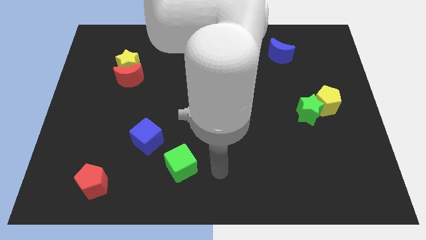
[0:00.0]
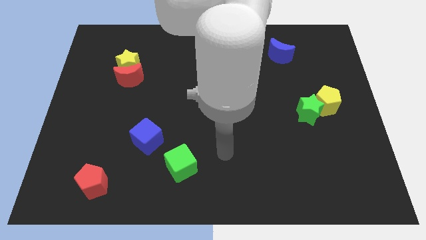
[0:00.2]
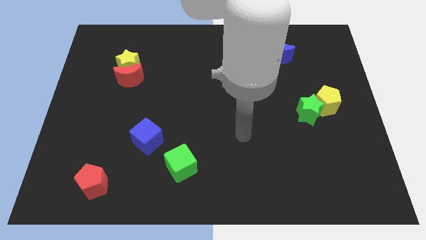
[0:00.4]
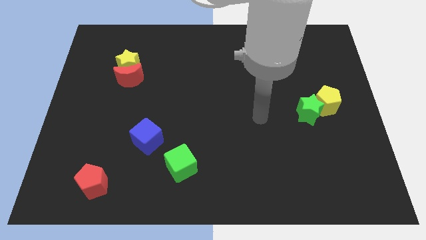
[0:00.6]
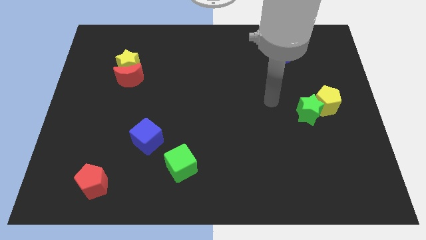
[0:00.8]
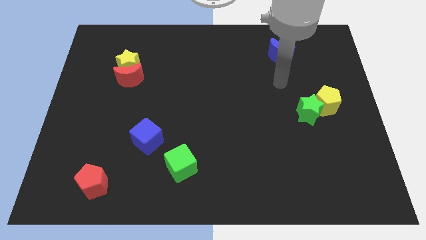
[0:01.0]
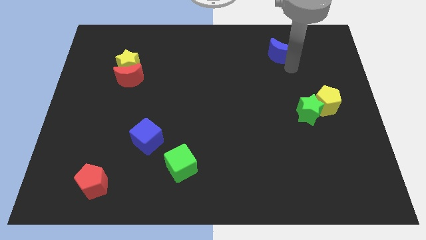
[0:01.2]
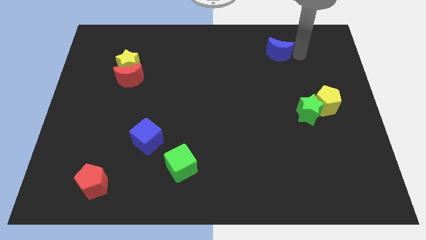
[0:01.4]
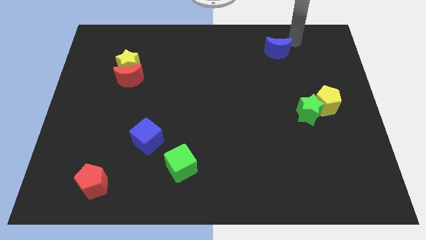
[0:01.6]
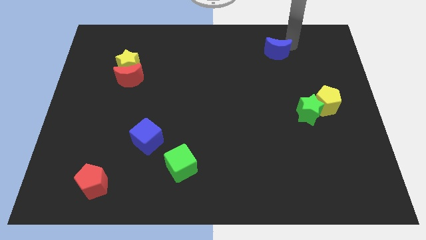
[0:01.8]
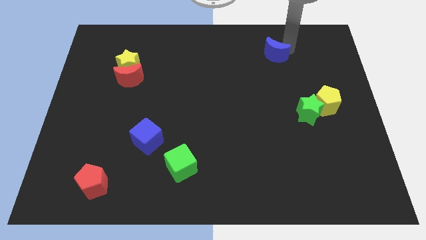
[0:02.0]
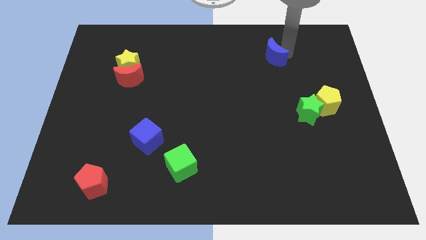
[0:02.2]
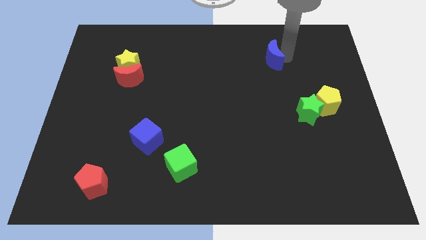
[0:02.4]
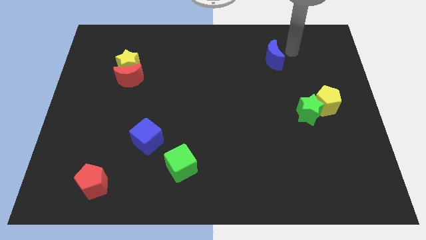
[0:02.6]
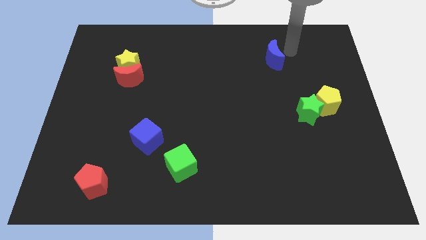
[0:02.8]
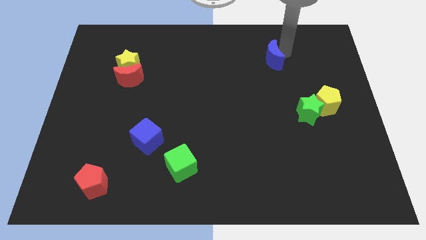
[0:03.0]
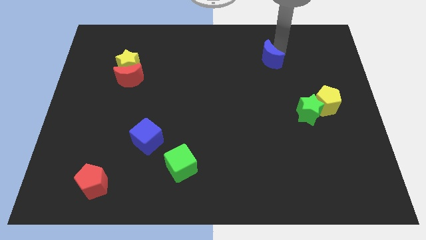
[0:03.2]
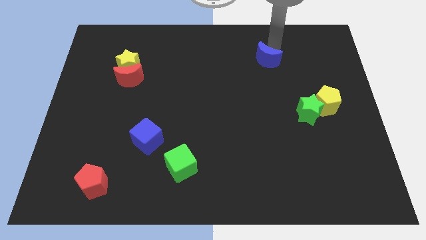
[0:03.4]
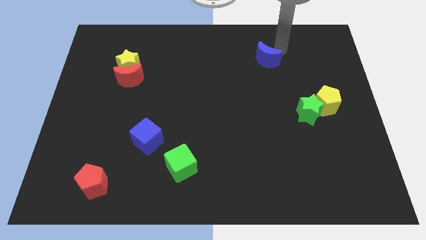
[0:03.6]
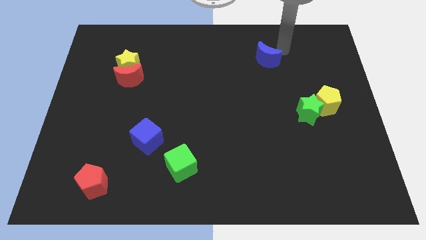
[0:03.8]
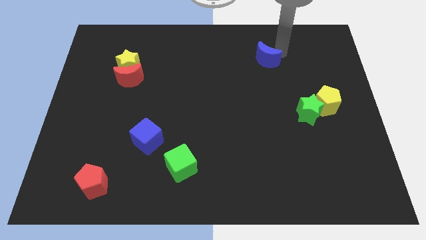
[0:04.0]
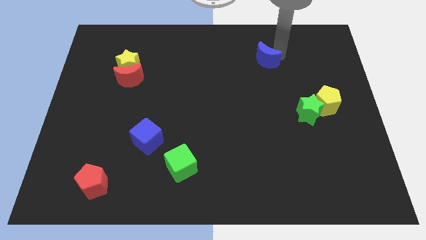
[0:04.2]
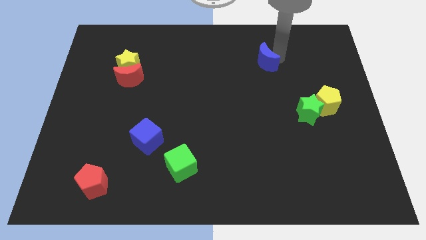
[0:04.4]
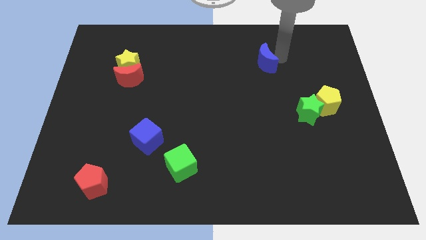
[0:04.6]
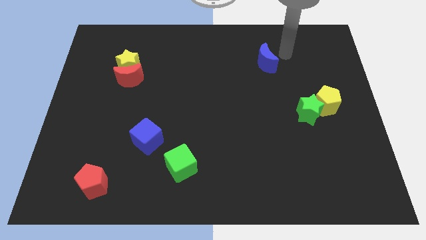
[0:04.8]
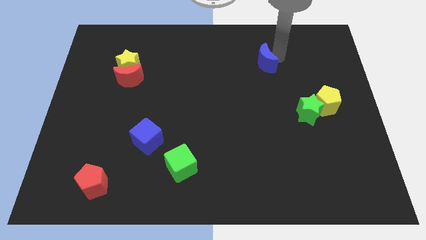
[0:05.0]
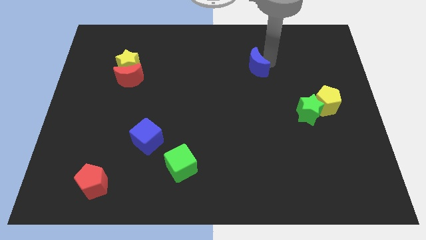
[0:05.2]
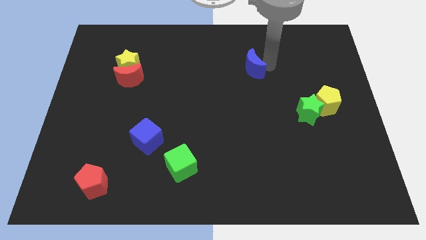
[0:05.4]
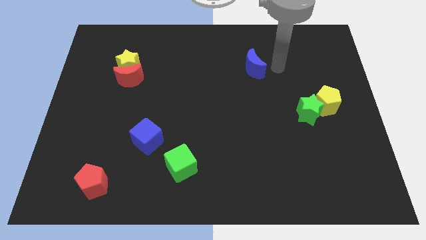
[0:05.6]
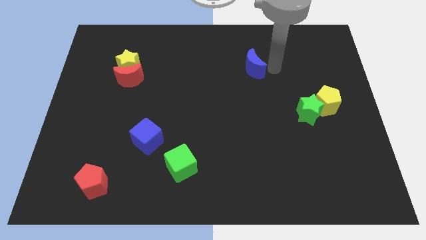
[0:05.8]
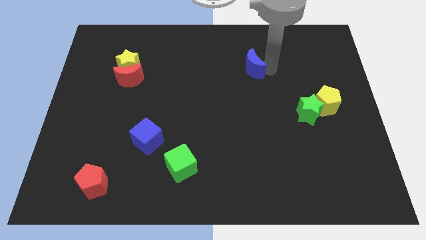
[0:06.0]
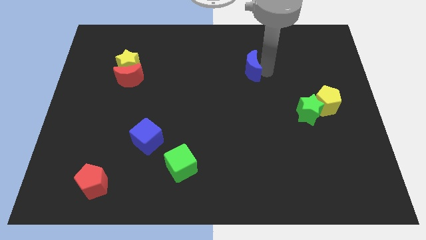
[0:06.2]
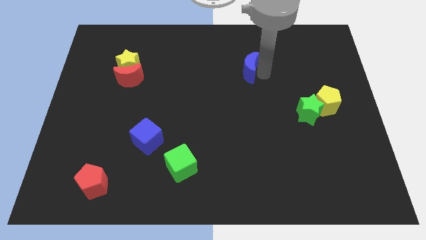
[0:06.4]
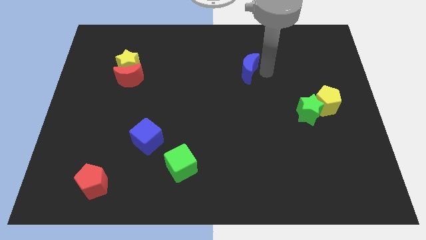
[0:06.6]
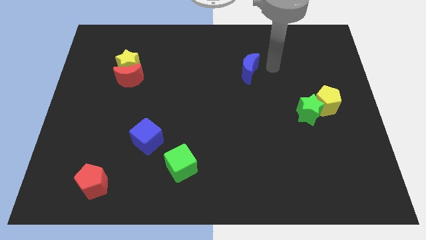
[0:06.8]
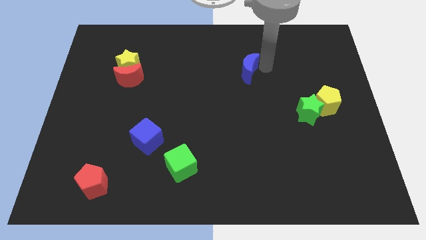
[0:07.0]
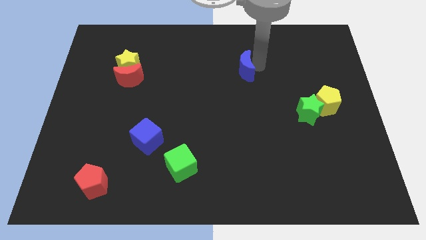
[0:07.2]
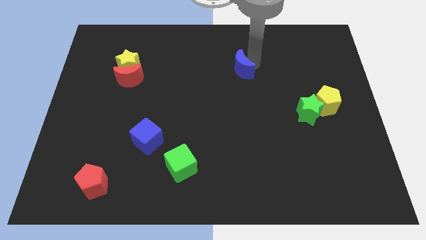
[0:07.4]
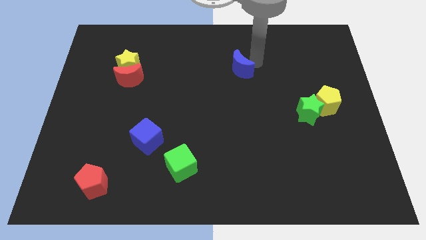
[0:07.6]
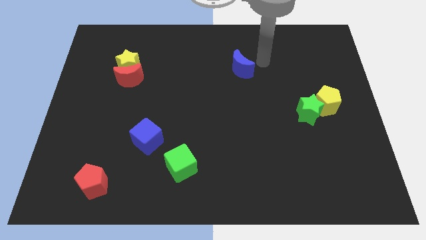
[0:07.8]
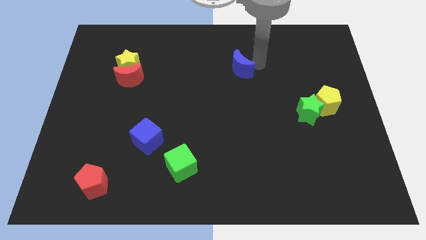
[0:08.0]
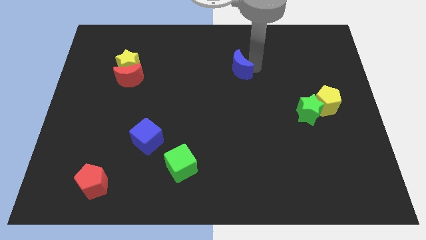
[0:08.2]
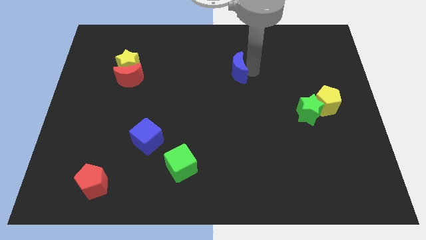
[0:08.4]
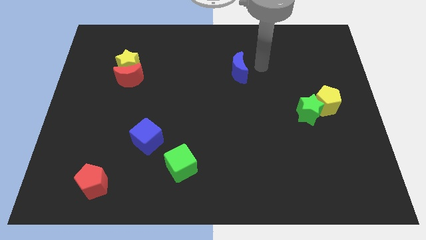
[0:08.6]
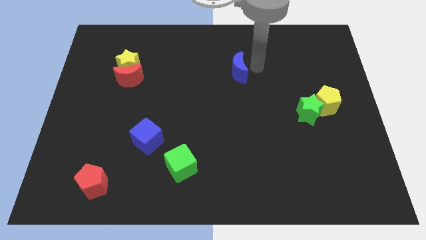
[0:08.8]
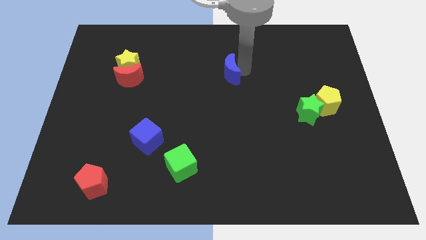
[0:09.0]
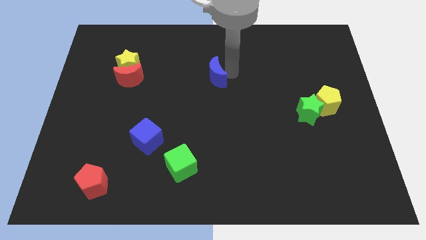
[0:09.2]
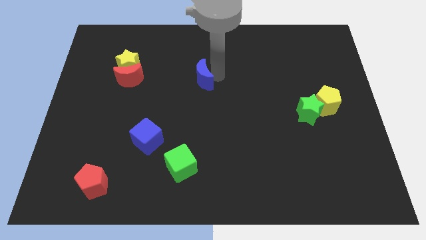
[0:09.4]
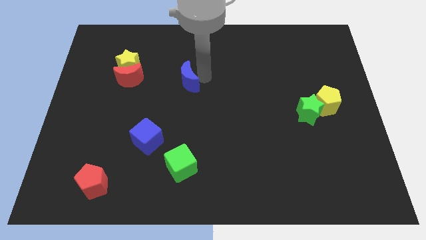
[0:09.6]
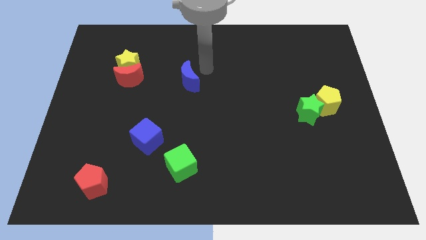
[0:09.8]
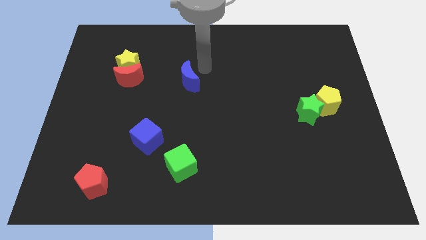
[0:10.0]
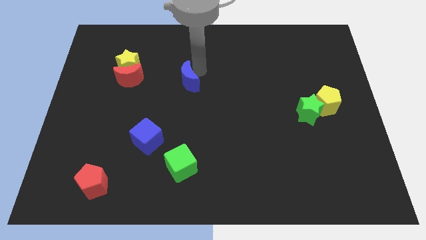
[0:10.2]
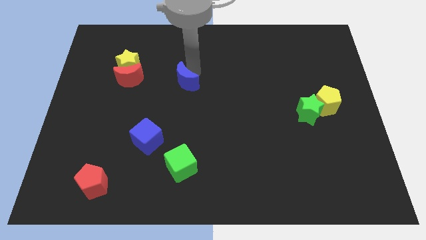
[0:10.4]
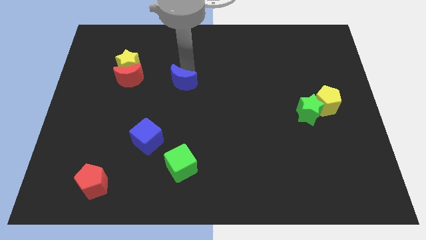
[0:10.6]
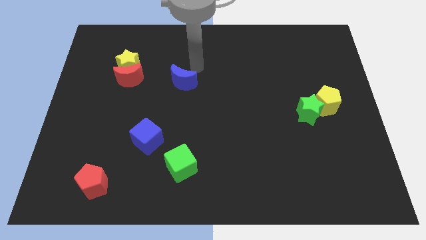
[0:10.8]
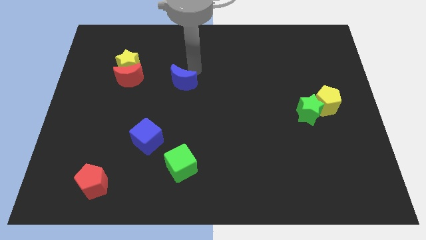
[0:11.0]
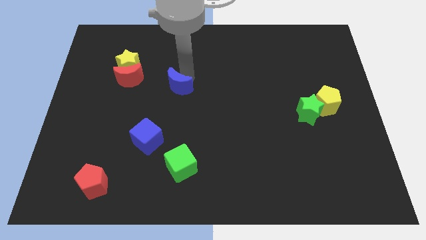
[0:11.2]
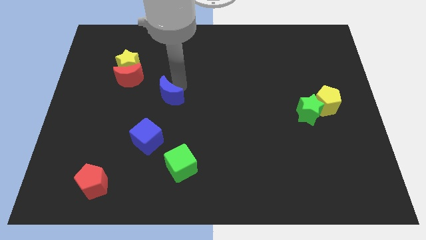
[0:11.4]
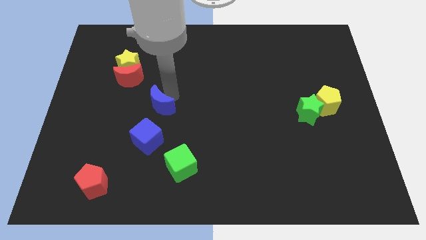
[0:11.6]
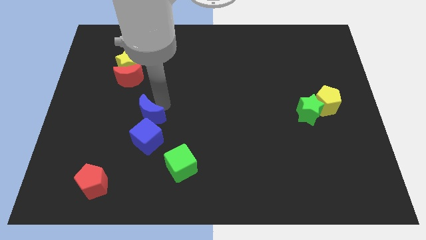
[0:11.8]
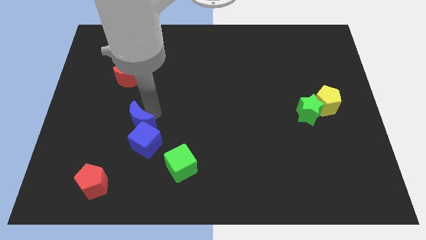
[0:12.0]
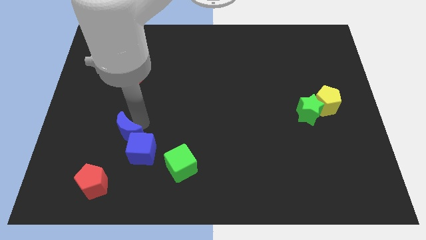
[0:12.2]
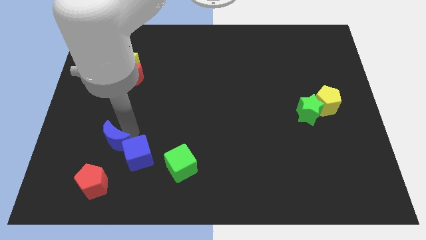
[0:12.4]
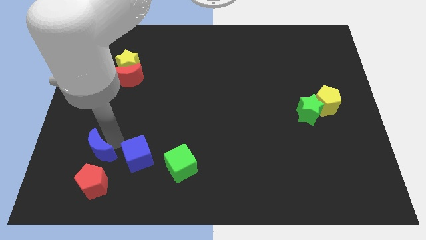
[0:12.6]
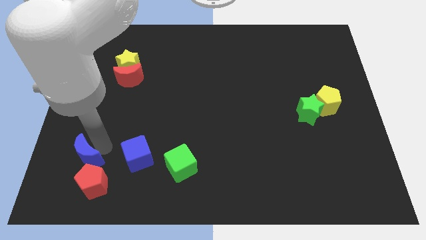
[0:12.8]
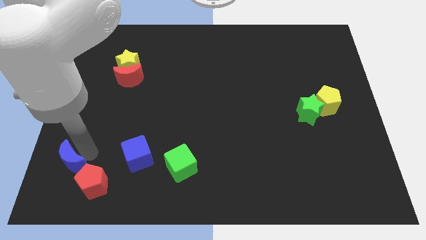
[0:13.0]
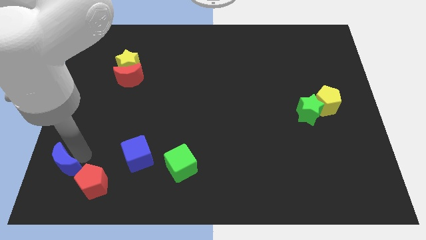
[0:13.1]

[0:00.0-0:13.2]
push the blue moon to the bottom left of the board
